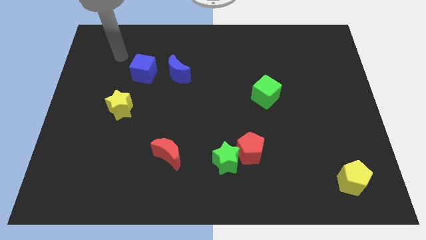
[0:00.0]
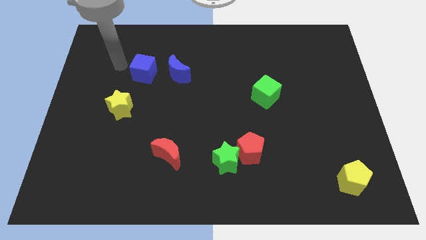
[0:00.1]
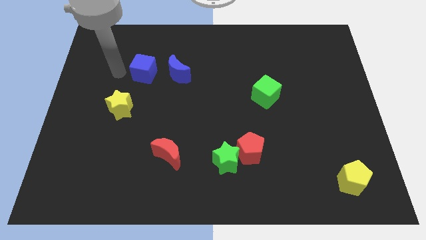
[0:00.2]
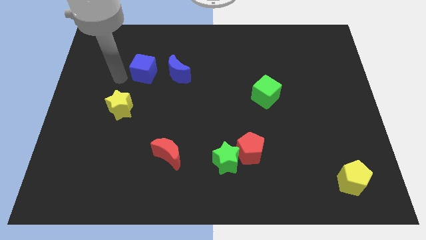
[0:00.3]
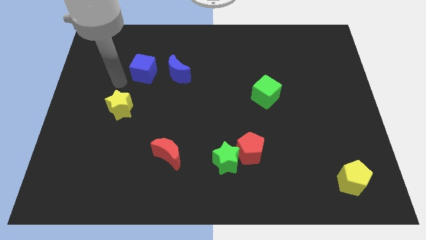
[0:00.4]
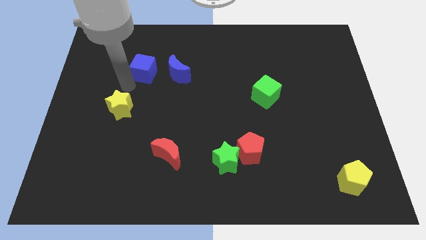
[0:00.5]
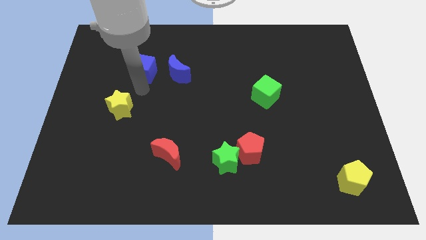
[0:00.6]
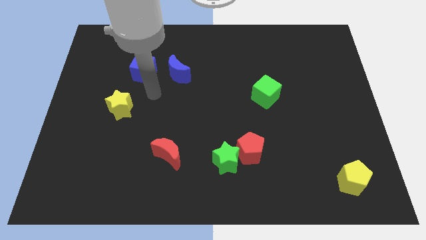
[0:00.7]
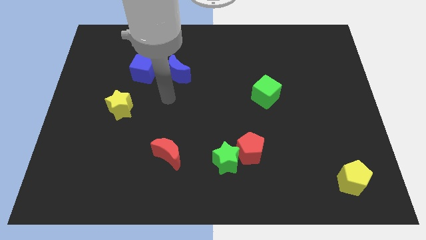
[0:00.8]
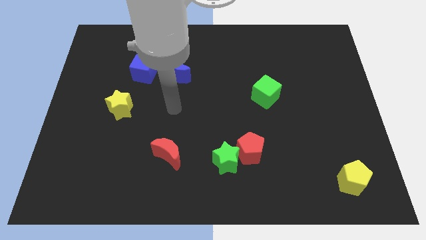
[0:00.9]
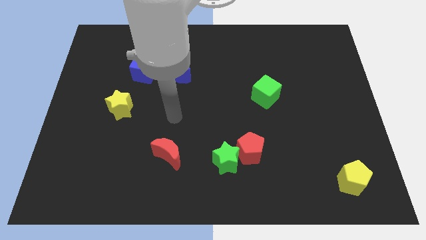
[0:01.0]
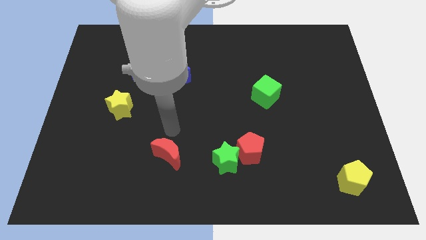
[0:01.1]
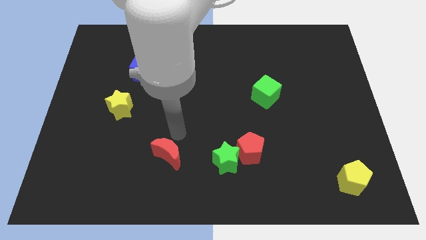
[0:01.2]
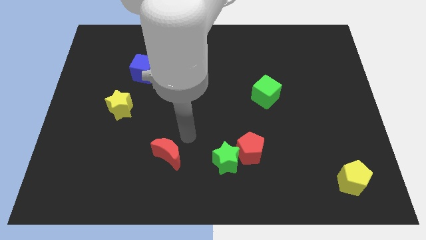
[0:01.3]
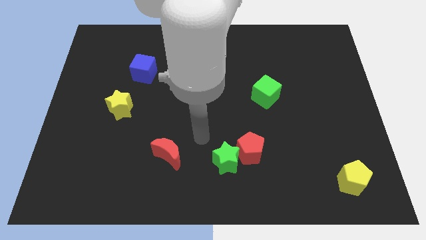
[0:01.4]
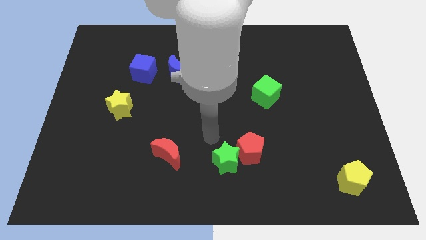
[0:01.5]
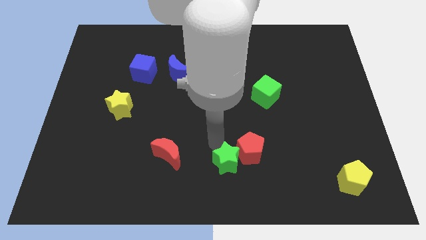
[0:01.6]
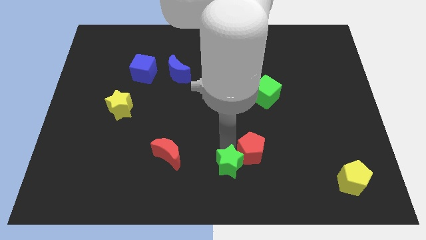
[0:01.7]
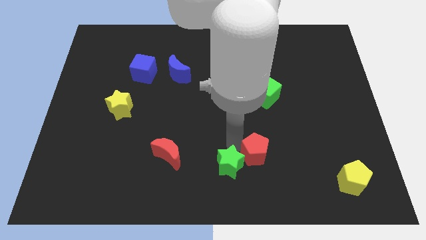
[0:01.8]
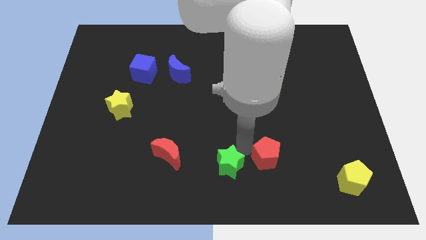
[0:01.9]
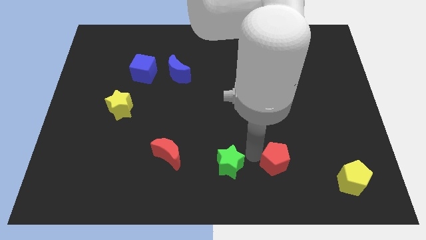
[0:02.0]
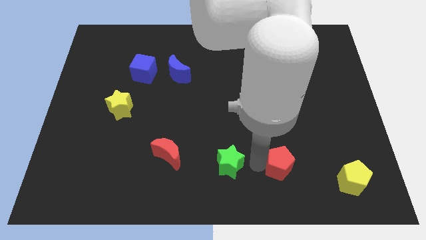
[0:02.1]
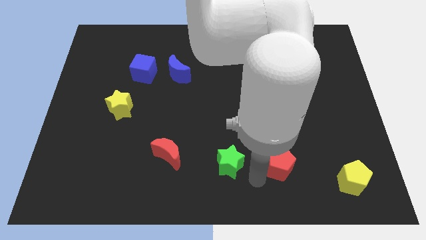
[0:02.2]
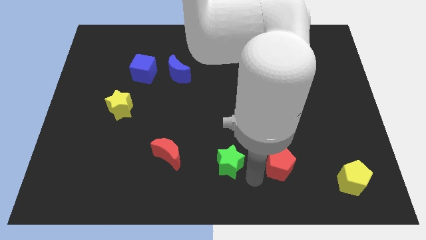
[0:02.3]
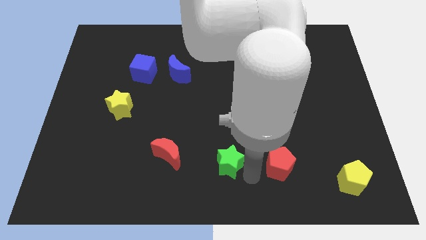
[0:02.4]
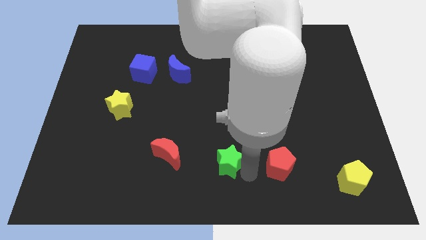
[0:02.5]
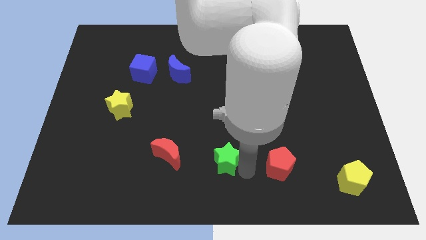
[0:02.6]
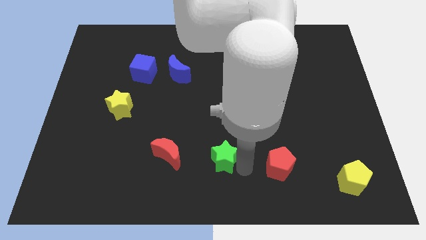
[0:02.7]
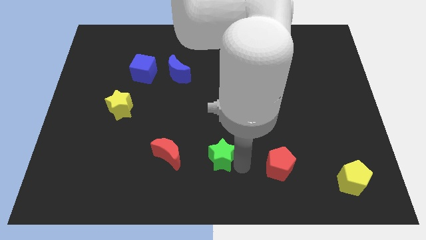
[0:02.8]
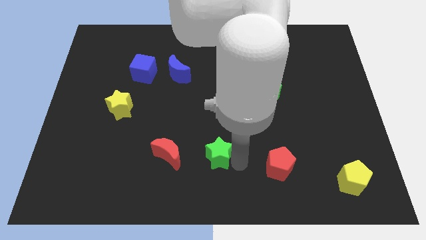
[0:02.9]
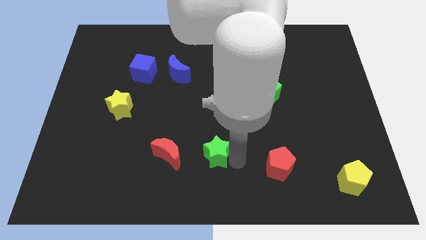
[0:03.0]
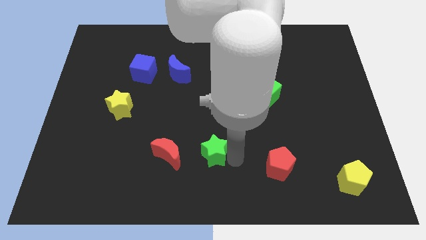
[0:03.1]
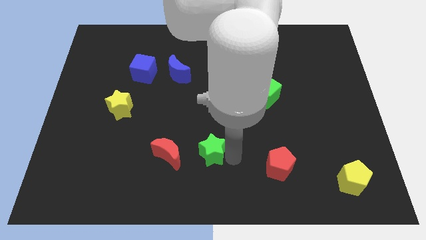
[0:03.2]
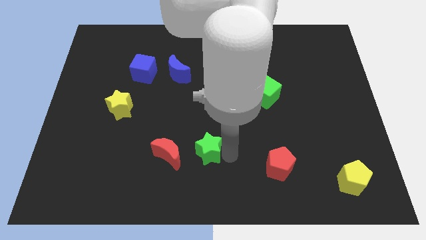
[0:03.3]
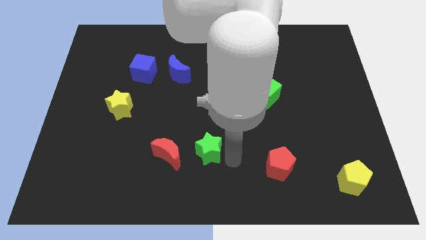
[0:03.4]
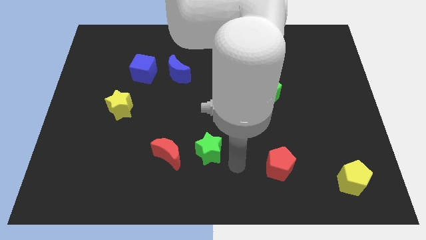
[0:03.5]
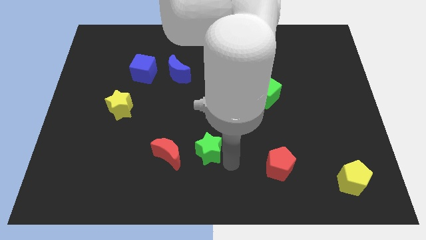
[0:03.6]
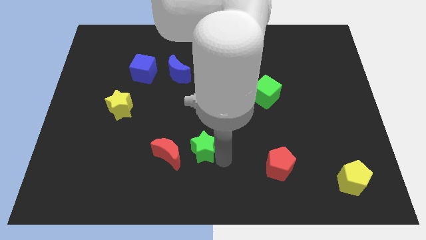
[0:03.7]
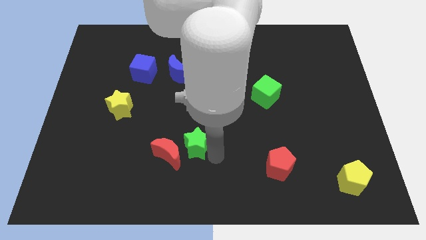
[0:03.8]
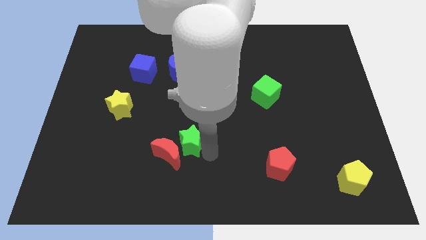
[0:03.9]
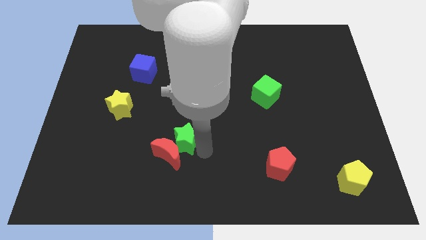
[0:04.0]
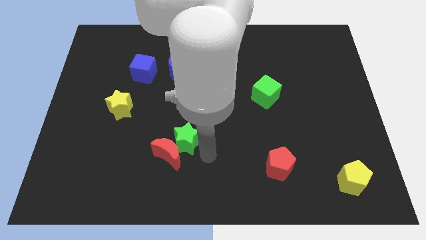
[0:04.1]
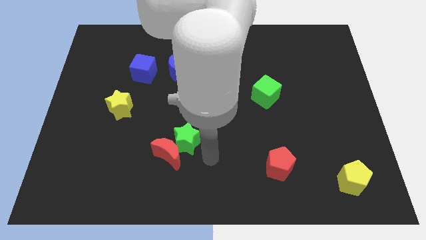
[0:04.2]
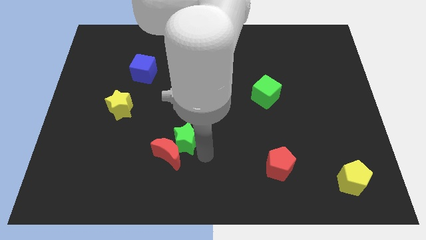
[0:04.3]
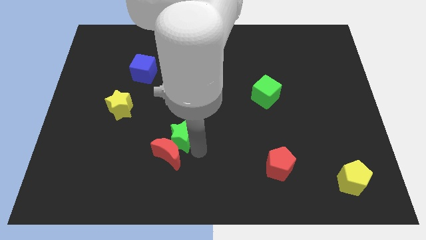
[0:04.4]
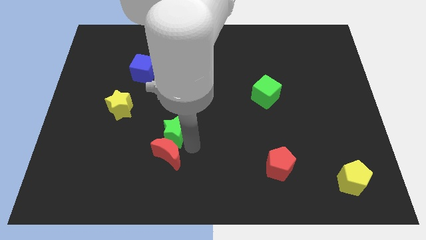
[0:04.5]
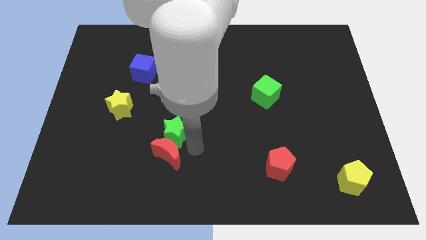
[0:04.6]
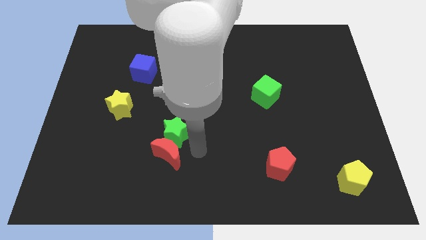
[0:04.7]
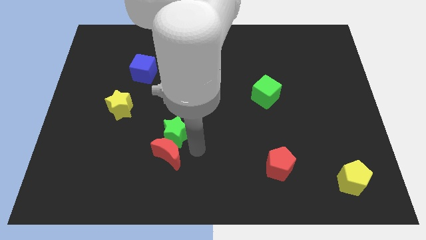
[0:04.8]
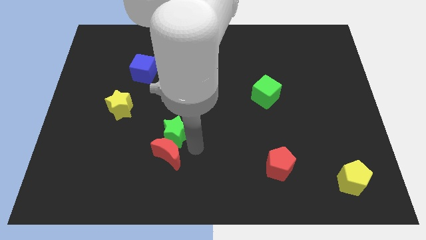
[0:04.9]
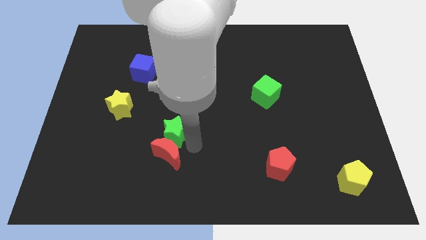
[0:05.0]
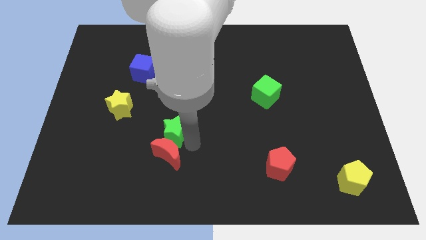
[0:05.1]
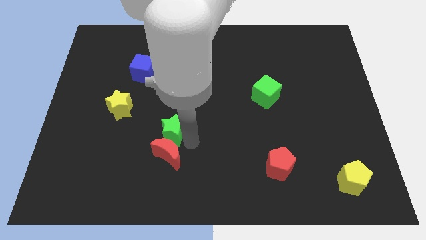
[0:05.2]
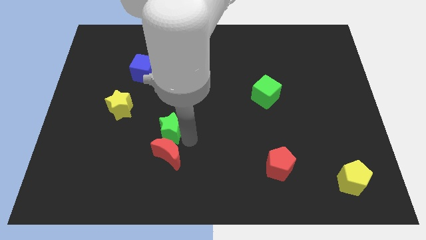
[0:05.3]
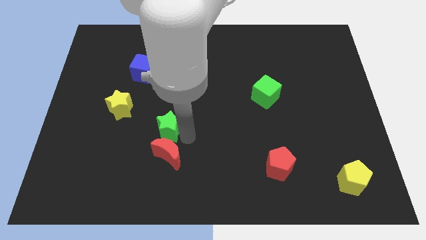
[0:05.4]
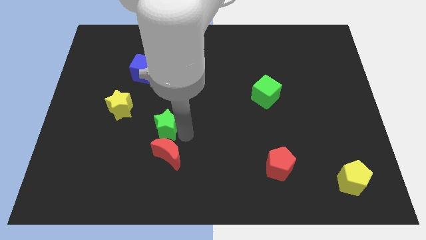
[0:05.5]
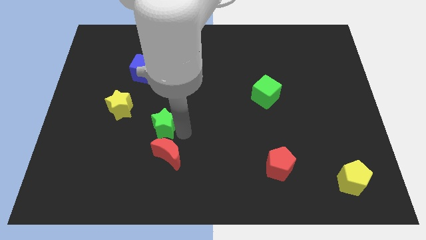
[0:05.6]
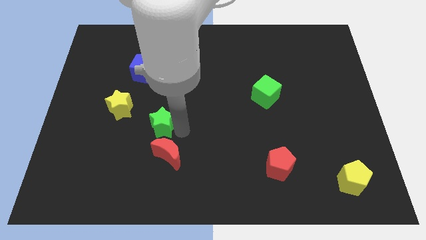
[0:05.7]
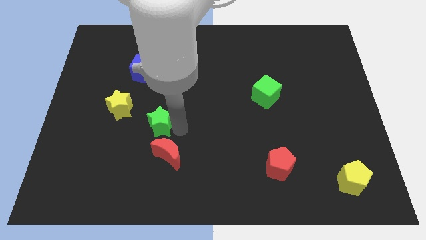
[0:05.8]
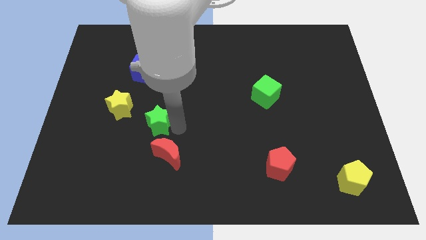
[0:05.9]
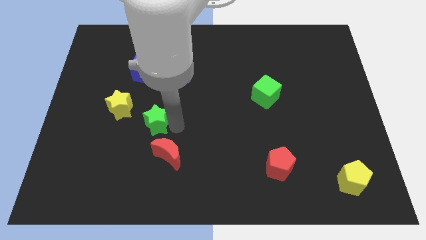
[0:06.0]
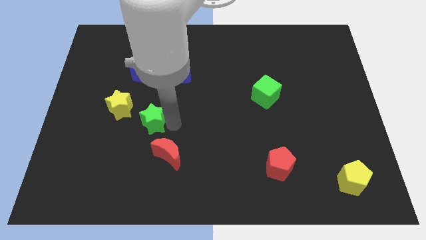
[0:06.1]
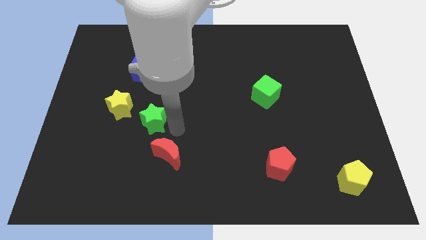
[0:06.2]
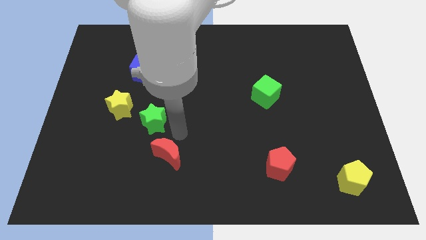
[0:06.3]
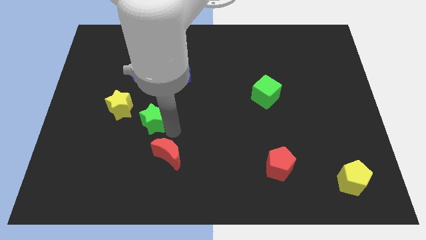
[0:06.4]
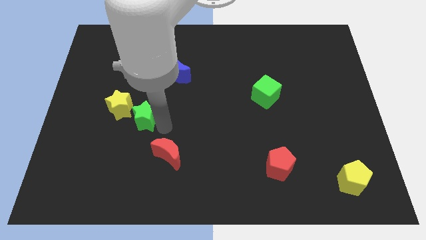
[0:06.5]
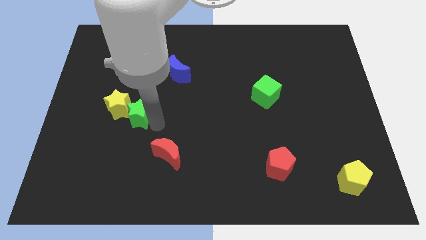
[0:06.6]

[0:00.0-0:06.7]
slide the green star close to the yellow star

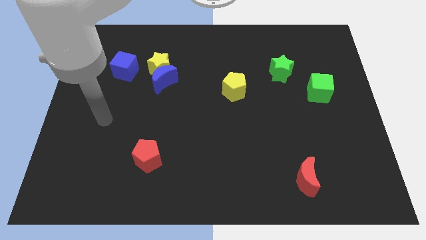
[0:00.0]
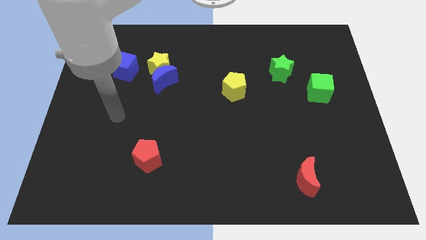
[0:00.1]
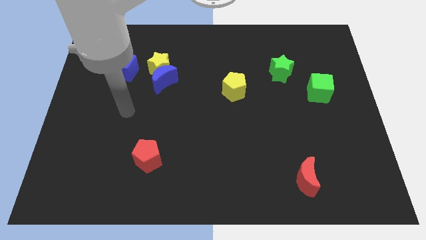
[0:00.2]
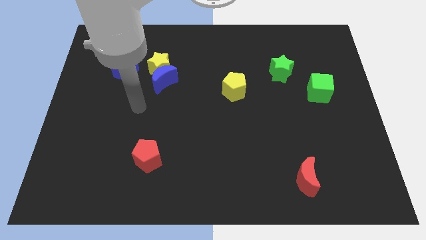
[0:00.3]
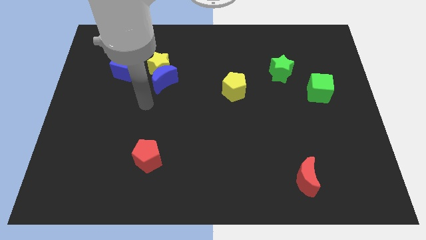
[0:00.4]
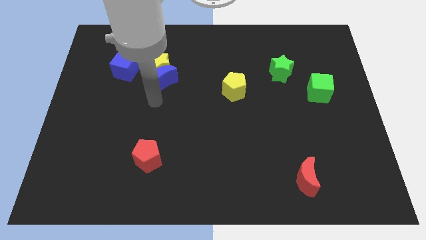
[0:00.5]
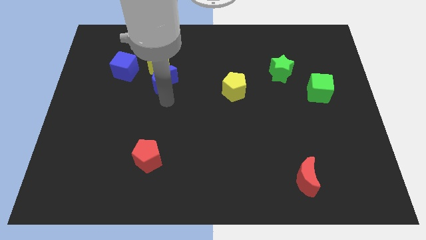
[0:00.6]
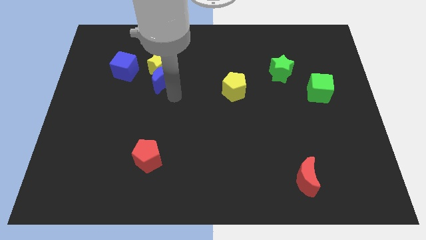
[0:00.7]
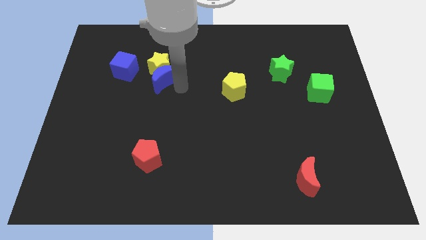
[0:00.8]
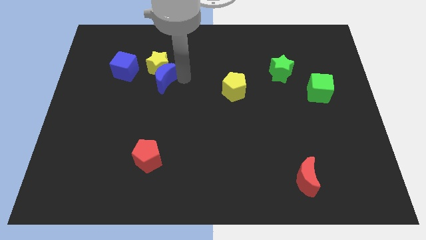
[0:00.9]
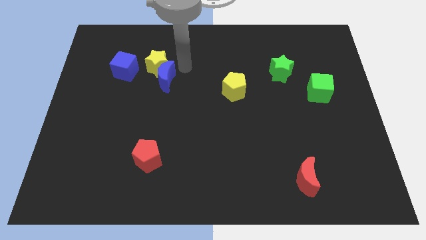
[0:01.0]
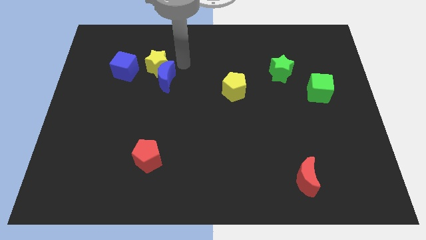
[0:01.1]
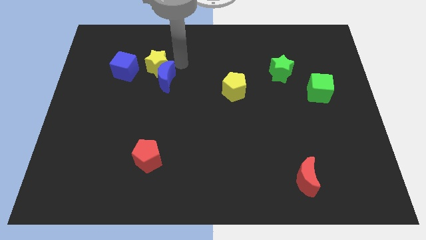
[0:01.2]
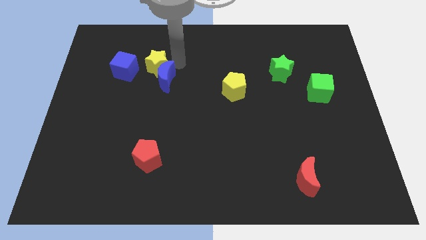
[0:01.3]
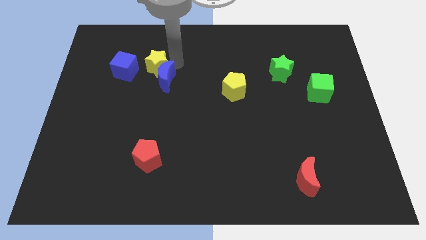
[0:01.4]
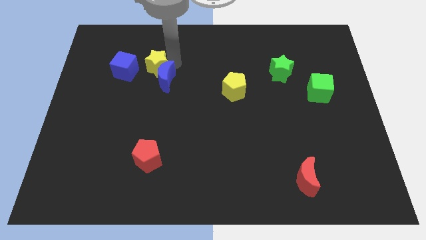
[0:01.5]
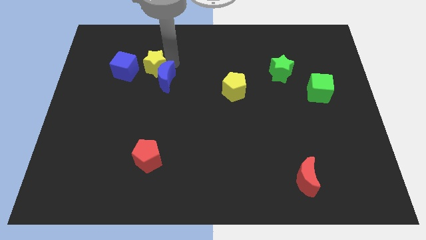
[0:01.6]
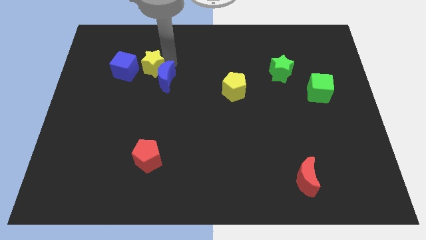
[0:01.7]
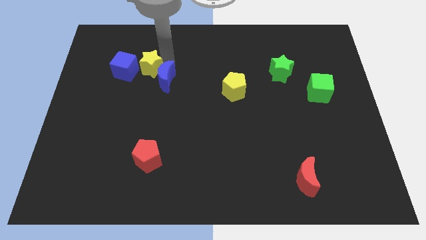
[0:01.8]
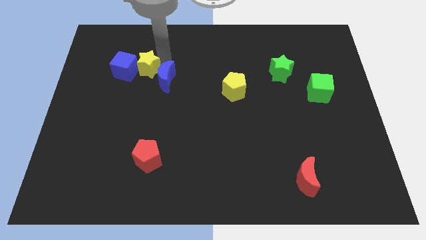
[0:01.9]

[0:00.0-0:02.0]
push the yellow star towards the blue cube
